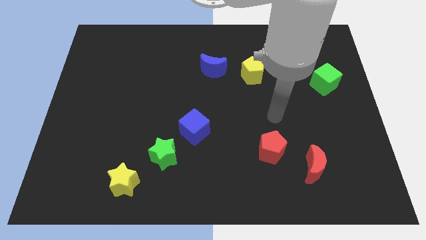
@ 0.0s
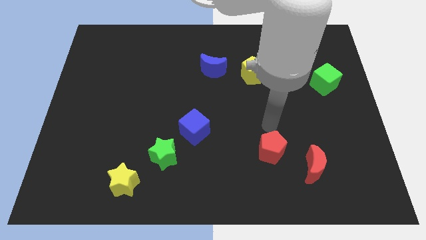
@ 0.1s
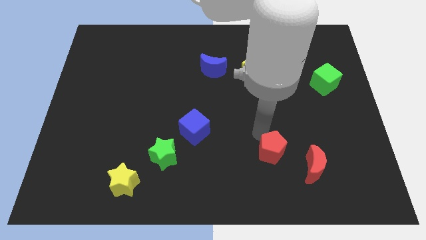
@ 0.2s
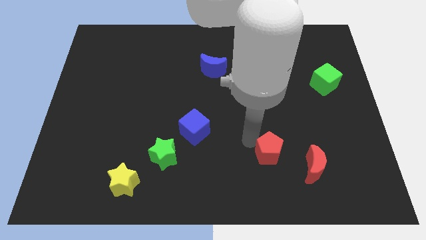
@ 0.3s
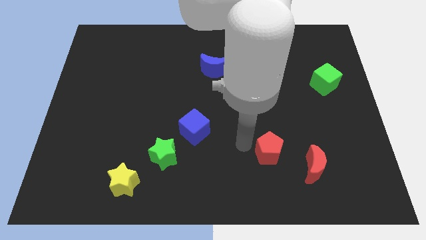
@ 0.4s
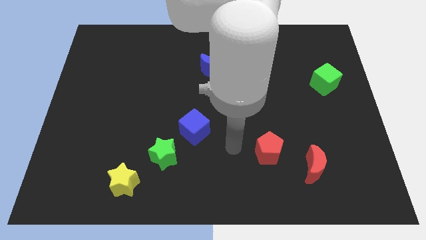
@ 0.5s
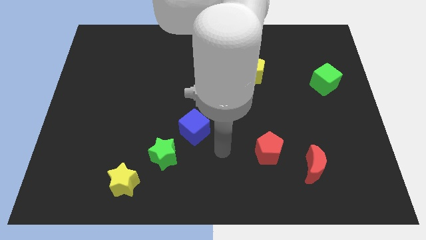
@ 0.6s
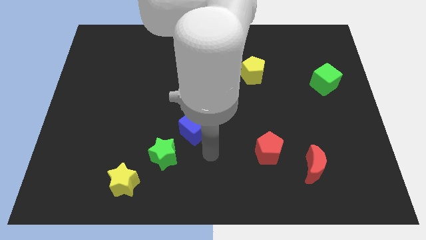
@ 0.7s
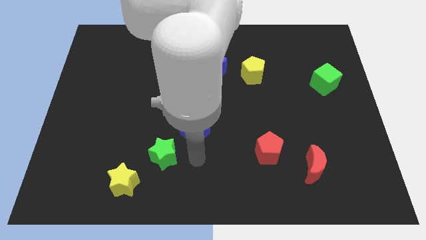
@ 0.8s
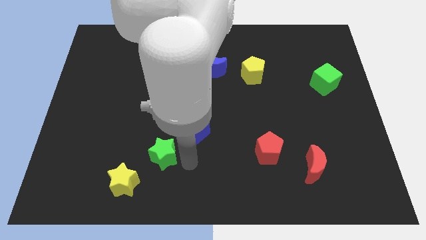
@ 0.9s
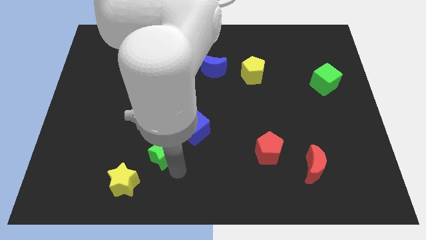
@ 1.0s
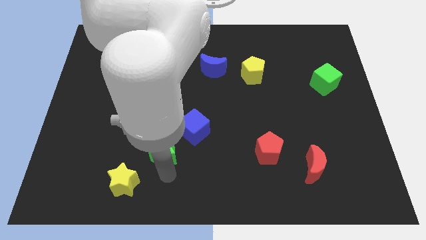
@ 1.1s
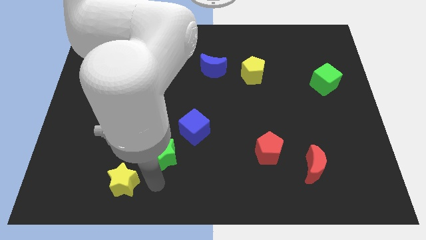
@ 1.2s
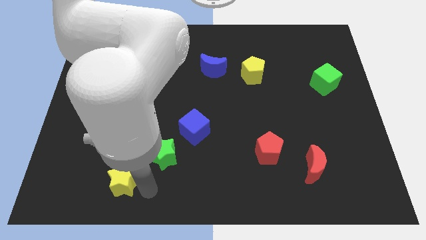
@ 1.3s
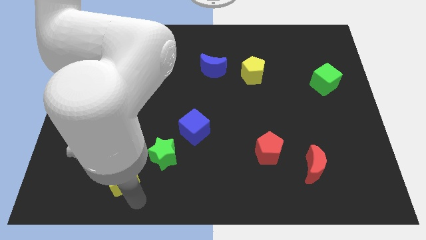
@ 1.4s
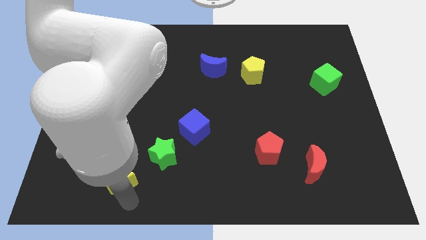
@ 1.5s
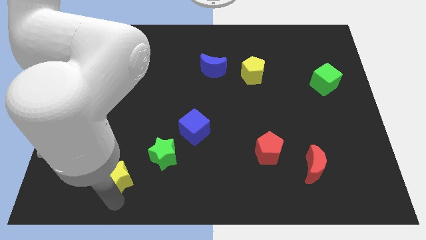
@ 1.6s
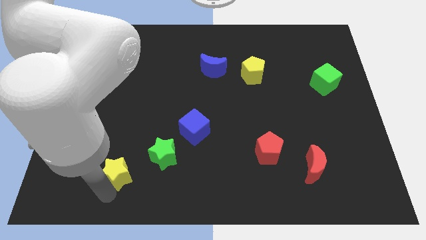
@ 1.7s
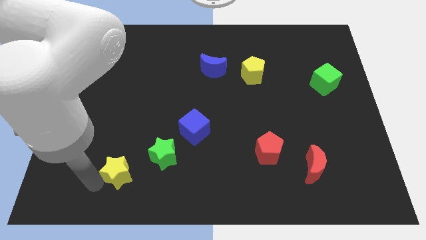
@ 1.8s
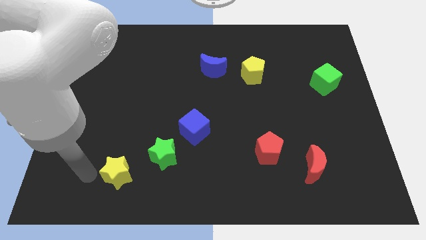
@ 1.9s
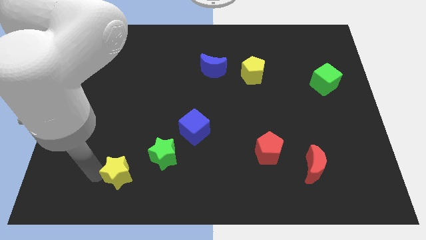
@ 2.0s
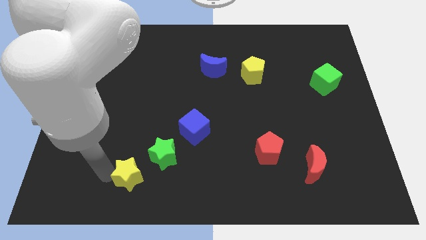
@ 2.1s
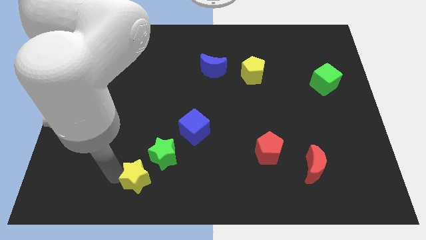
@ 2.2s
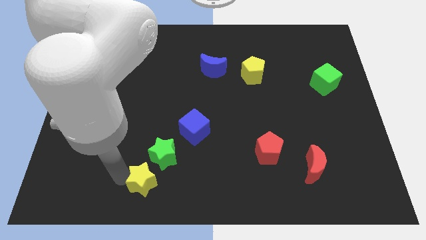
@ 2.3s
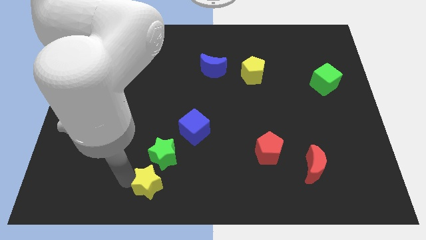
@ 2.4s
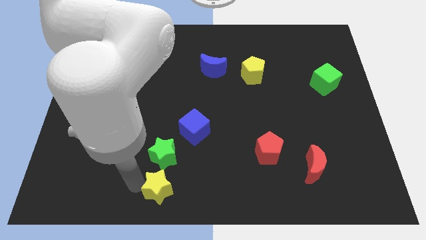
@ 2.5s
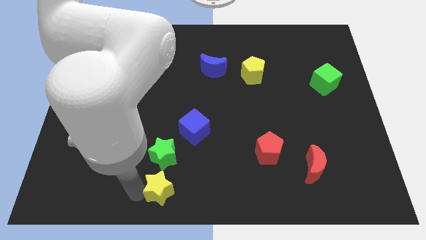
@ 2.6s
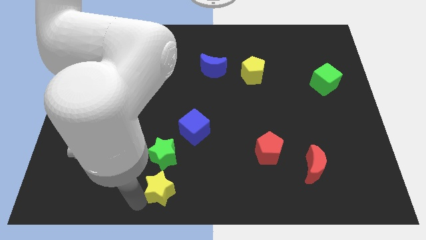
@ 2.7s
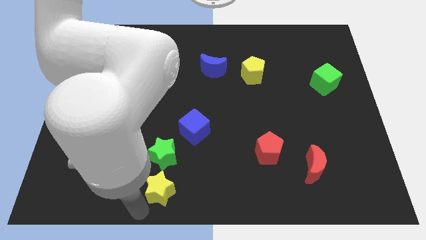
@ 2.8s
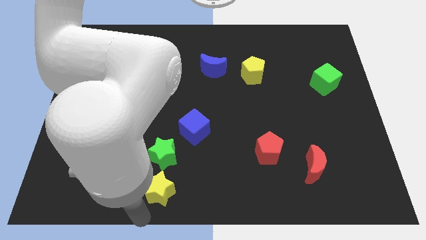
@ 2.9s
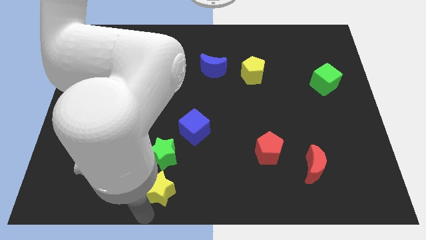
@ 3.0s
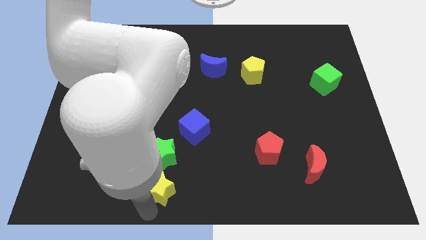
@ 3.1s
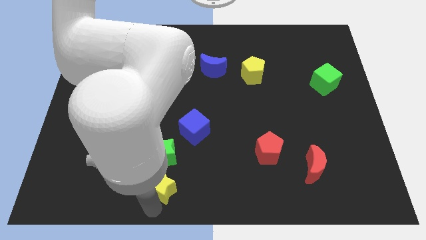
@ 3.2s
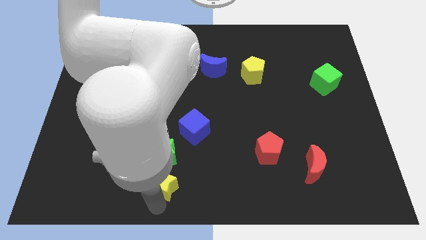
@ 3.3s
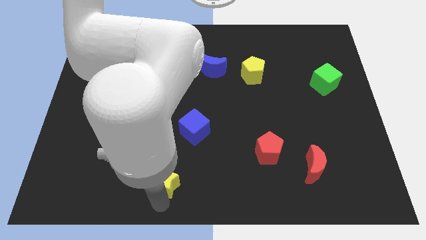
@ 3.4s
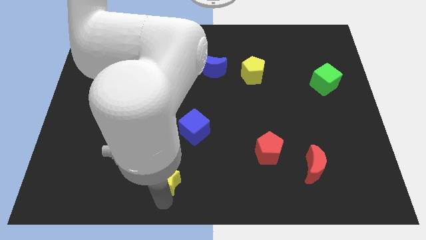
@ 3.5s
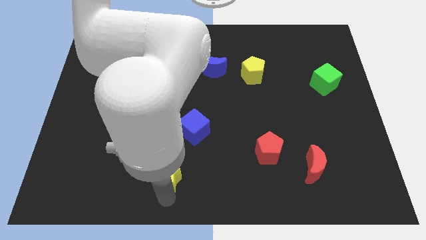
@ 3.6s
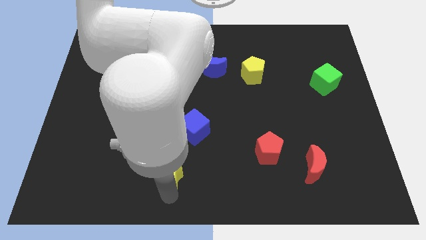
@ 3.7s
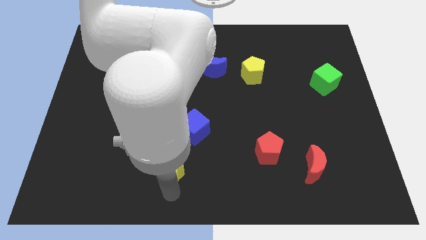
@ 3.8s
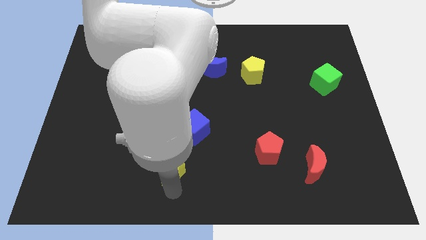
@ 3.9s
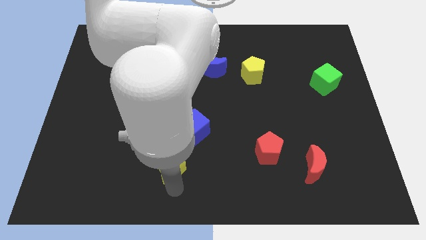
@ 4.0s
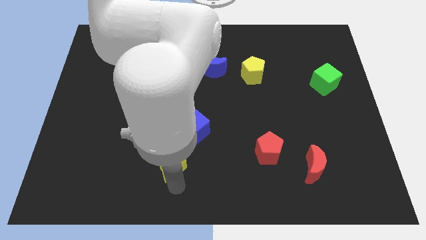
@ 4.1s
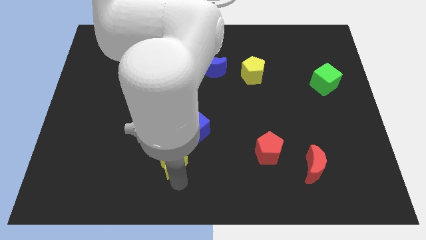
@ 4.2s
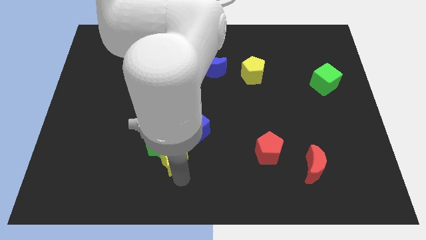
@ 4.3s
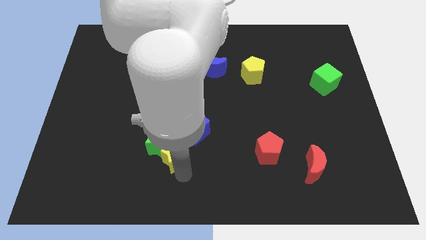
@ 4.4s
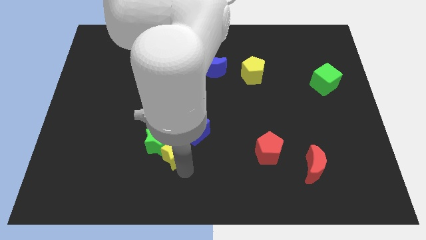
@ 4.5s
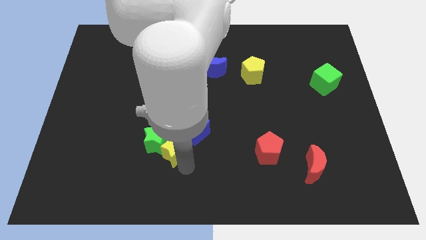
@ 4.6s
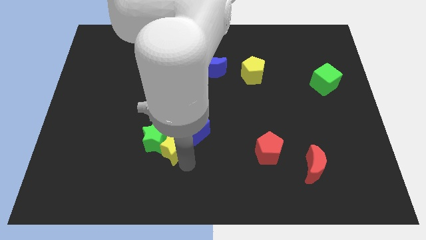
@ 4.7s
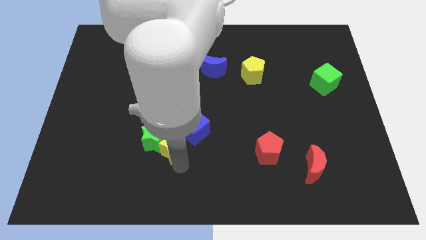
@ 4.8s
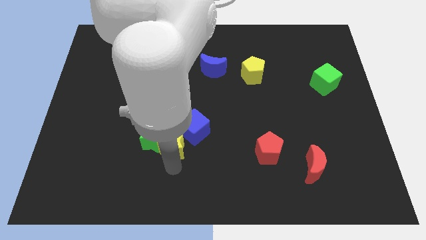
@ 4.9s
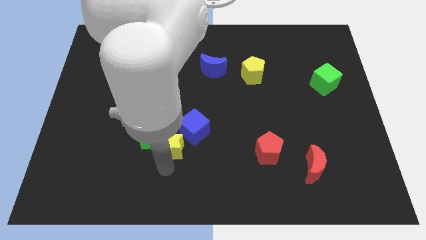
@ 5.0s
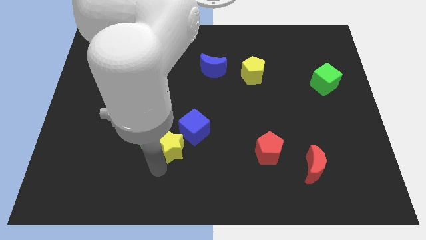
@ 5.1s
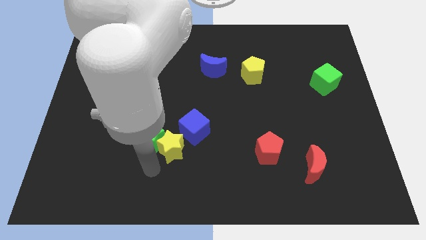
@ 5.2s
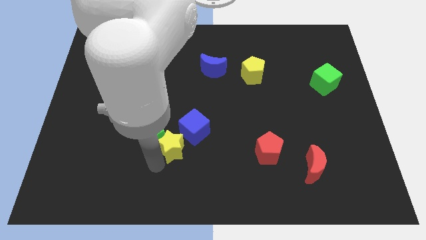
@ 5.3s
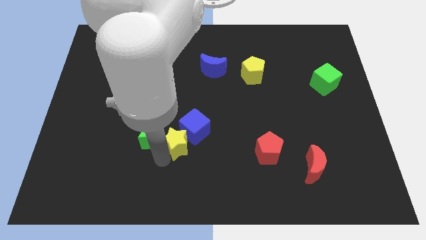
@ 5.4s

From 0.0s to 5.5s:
push the yellow star close to the blue cube

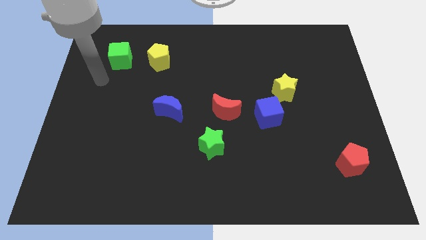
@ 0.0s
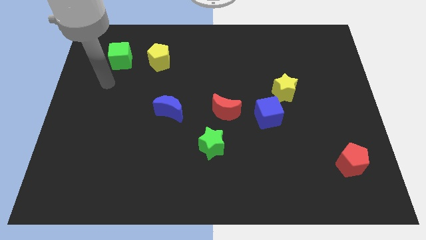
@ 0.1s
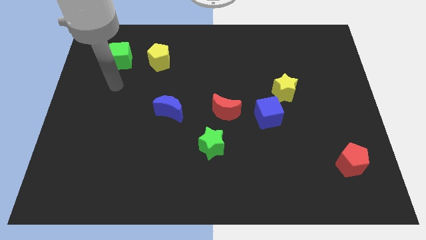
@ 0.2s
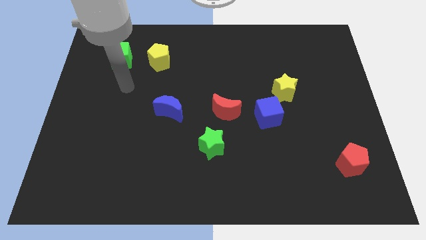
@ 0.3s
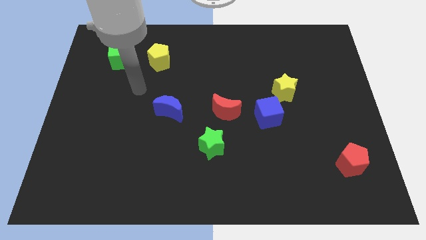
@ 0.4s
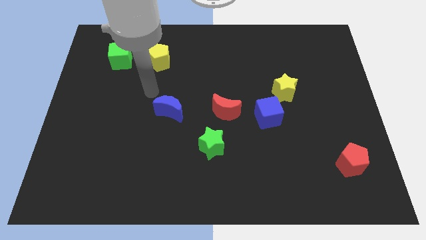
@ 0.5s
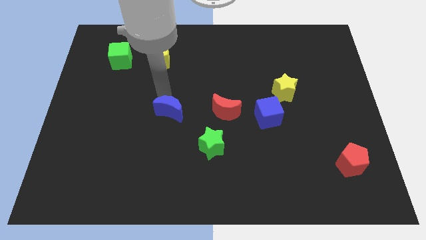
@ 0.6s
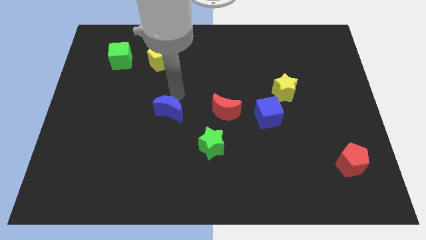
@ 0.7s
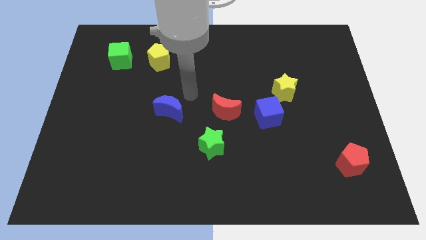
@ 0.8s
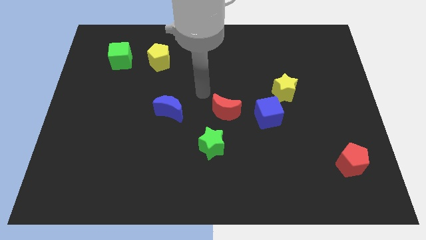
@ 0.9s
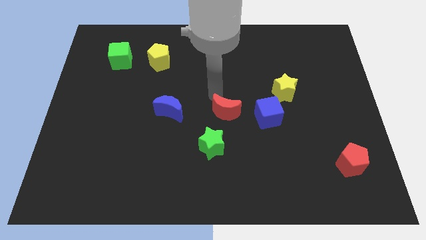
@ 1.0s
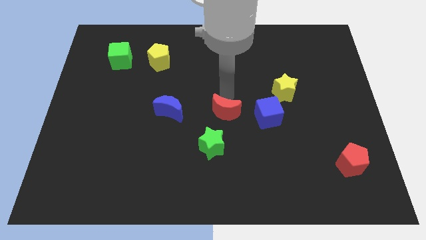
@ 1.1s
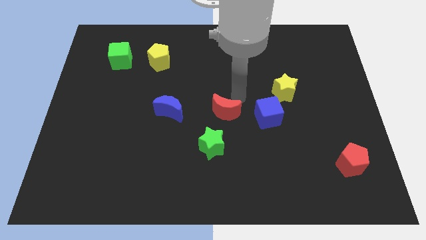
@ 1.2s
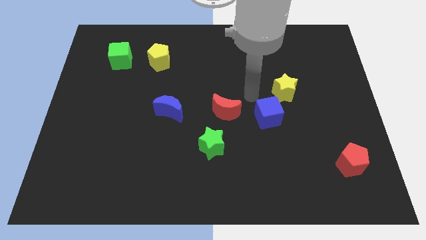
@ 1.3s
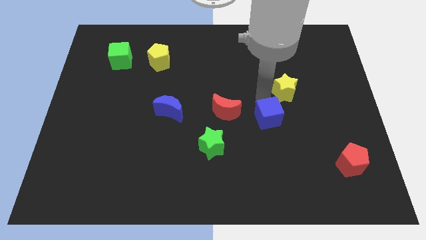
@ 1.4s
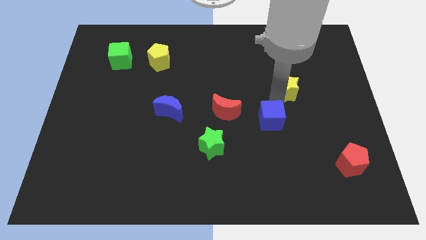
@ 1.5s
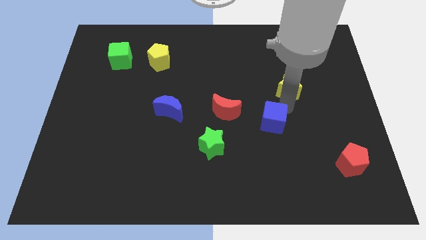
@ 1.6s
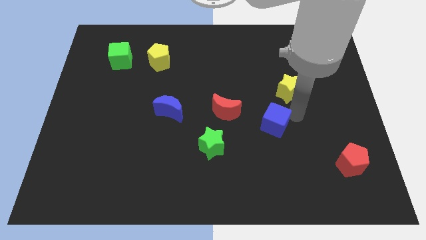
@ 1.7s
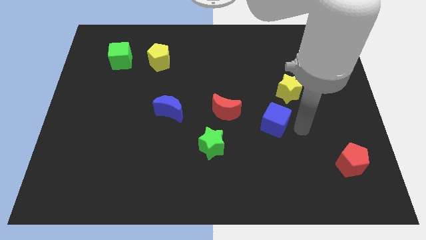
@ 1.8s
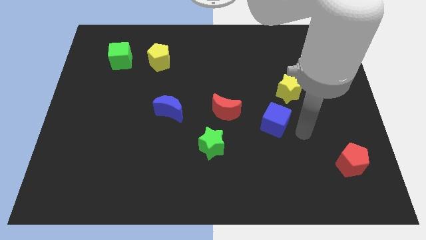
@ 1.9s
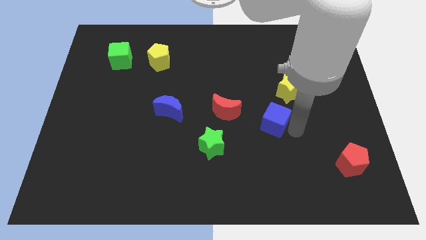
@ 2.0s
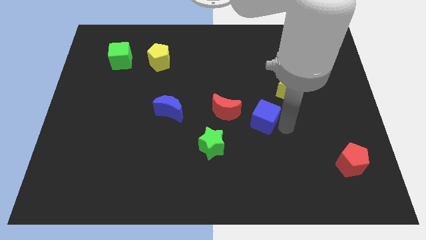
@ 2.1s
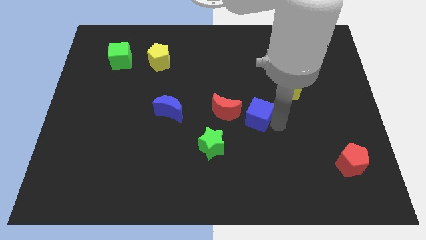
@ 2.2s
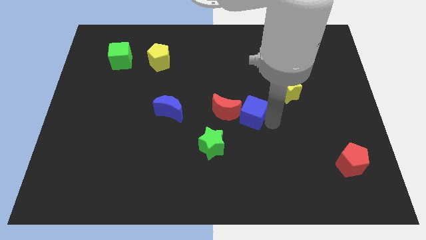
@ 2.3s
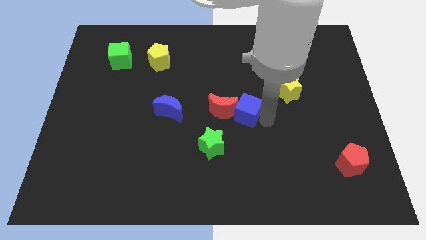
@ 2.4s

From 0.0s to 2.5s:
put the blue cube towards the red moon

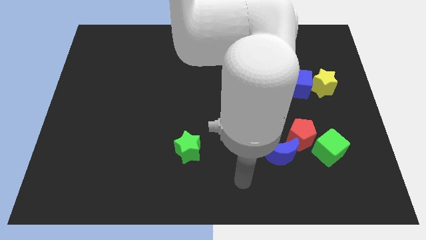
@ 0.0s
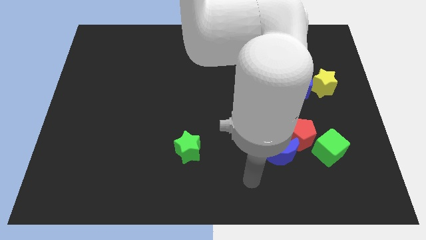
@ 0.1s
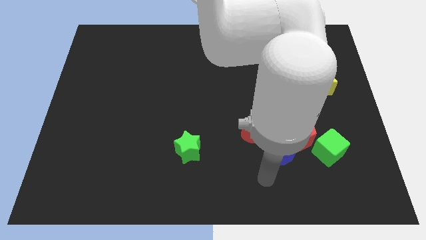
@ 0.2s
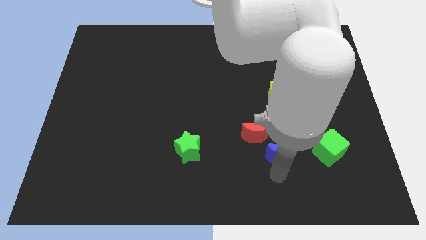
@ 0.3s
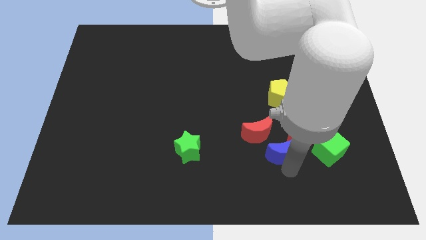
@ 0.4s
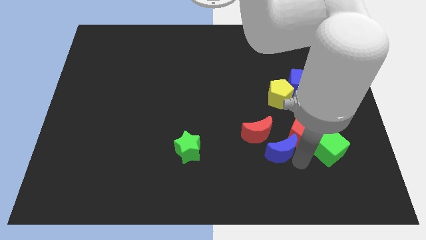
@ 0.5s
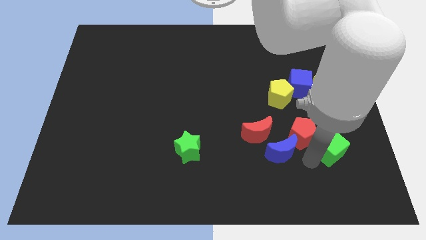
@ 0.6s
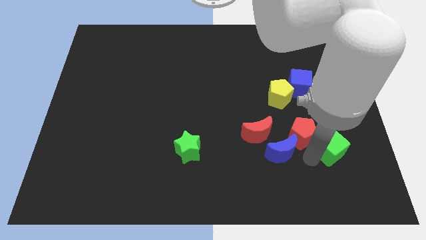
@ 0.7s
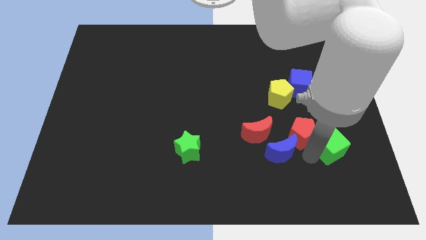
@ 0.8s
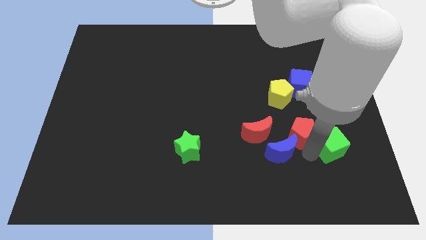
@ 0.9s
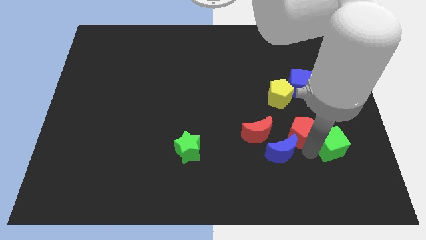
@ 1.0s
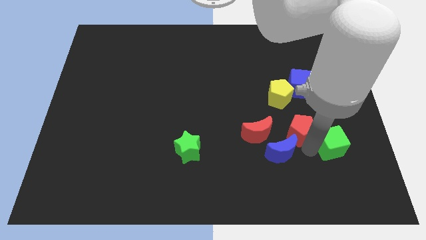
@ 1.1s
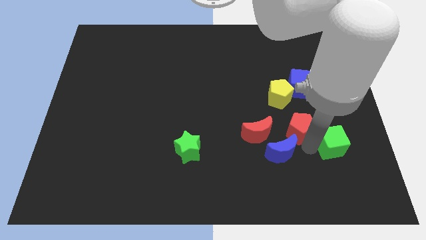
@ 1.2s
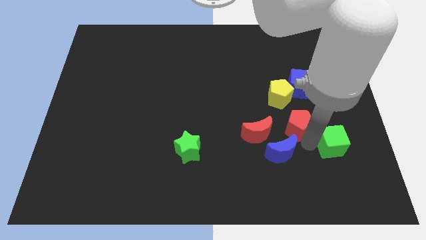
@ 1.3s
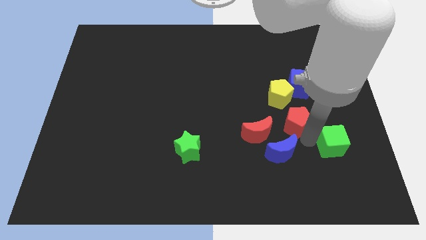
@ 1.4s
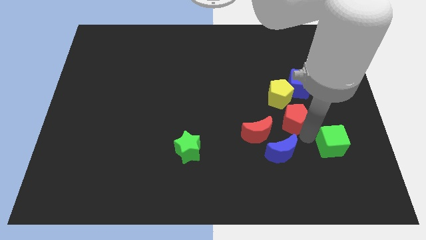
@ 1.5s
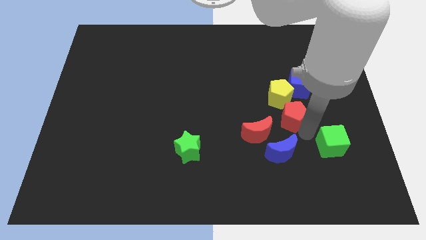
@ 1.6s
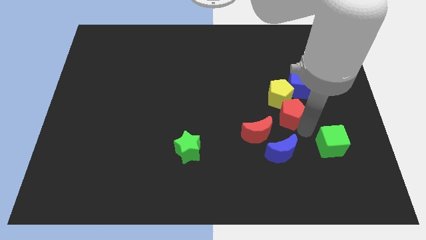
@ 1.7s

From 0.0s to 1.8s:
push the red pentagon towards the yellow pentagon
